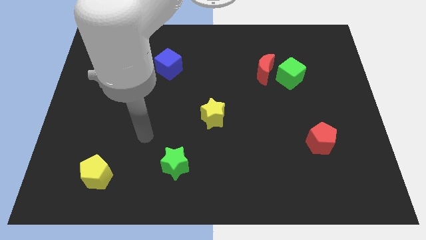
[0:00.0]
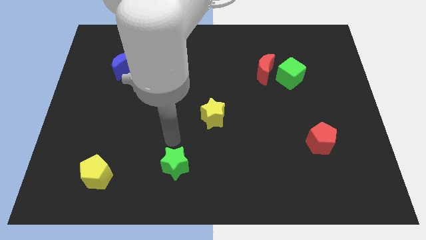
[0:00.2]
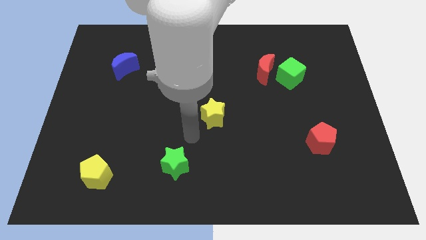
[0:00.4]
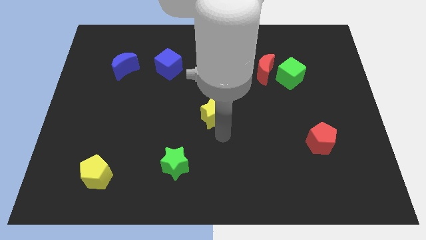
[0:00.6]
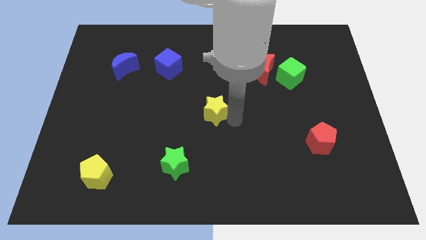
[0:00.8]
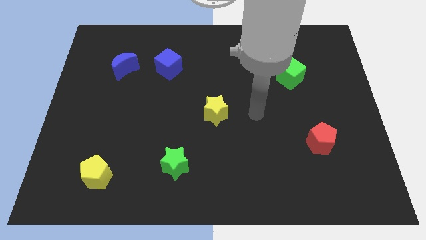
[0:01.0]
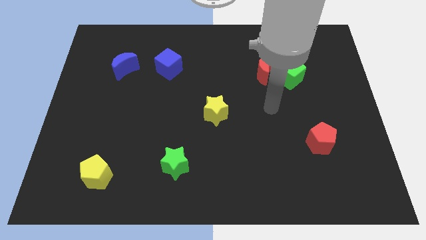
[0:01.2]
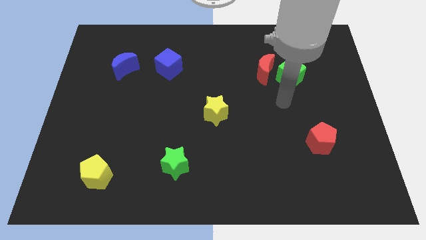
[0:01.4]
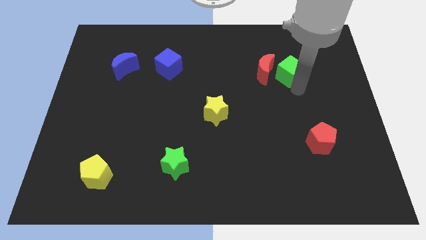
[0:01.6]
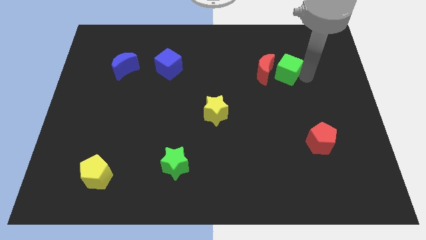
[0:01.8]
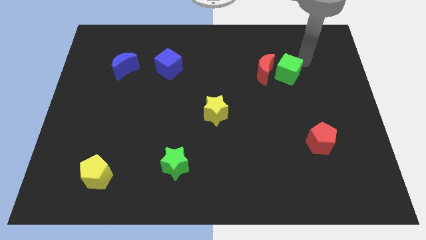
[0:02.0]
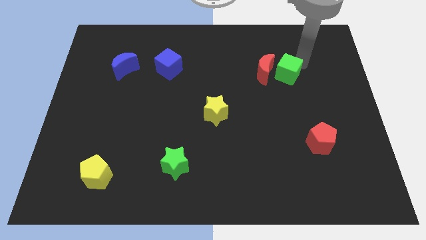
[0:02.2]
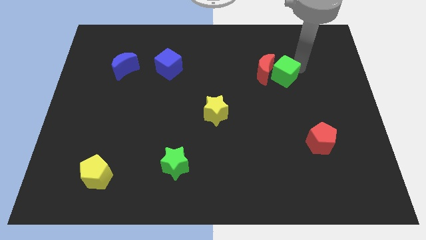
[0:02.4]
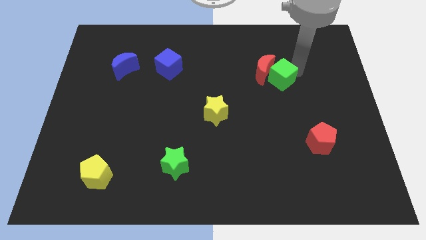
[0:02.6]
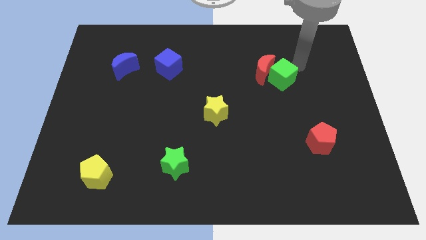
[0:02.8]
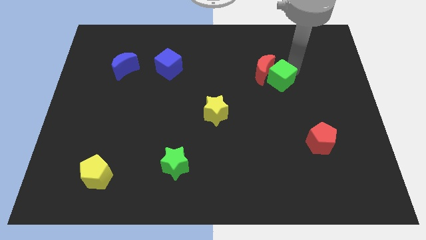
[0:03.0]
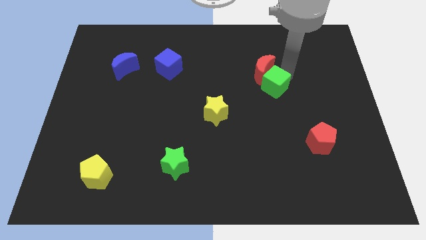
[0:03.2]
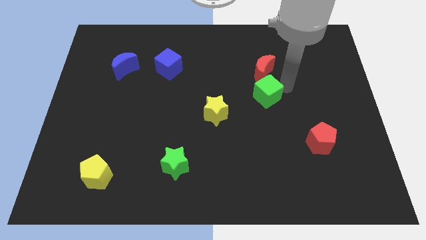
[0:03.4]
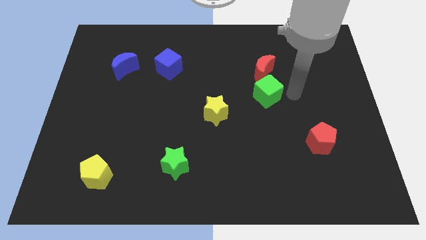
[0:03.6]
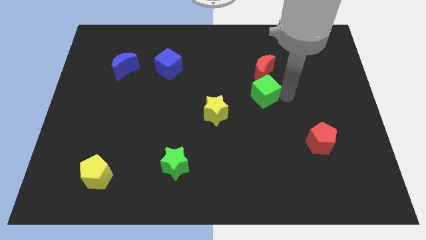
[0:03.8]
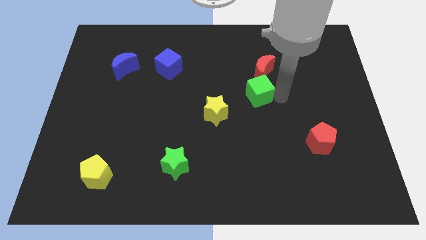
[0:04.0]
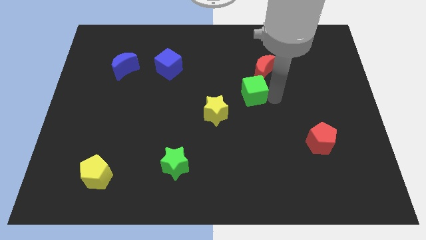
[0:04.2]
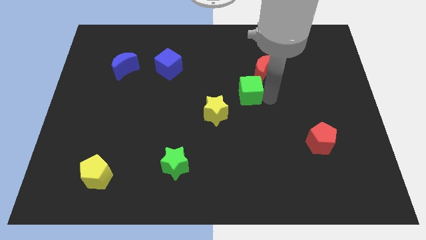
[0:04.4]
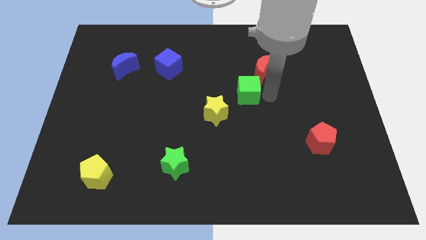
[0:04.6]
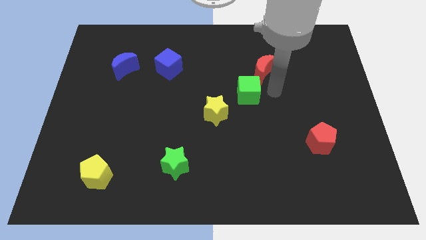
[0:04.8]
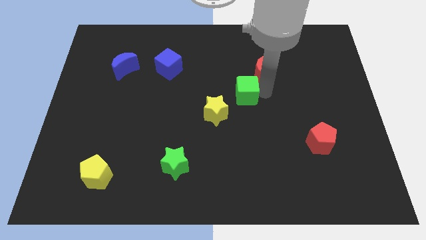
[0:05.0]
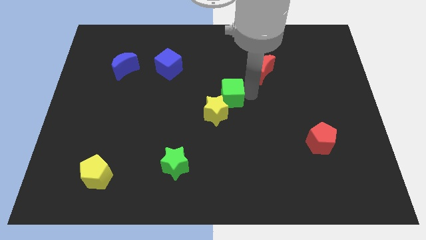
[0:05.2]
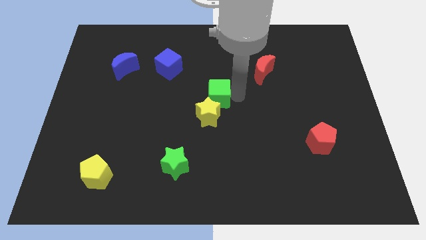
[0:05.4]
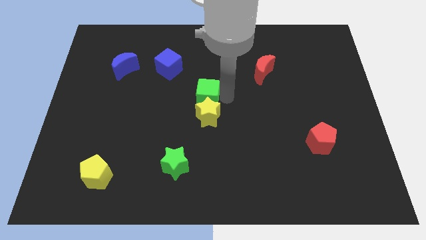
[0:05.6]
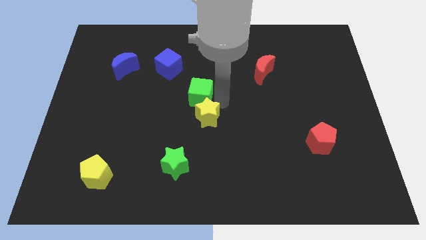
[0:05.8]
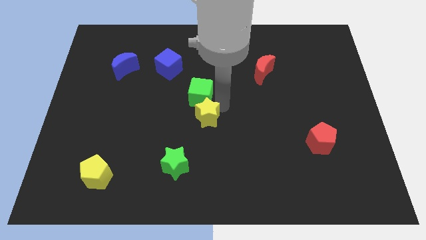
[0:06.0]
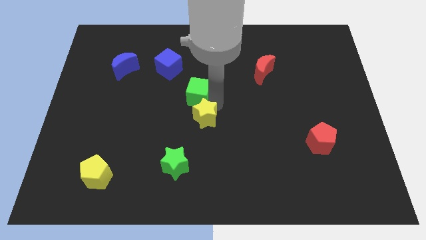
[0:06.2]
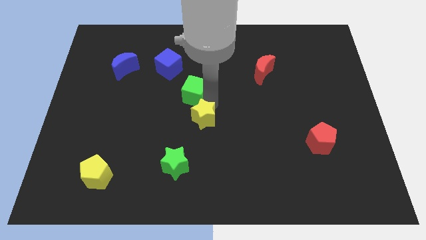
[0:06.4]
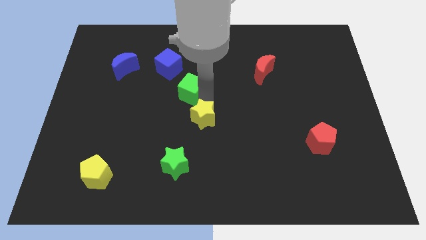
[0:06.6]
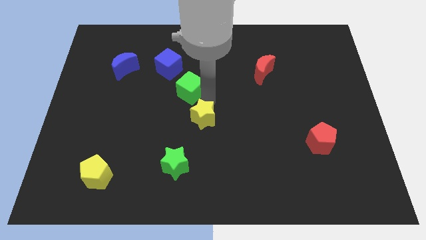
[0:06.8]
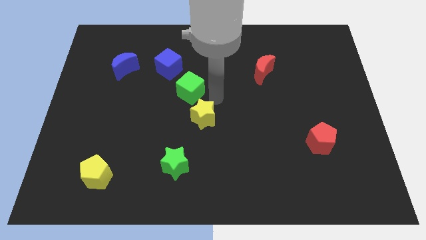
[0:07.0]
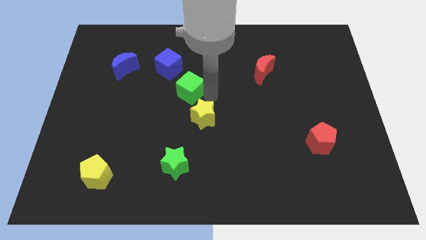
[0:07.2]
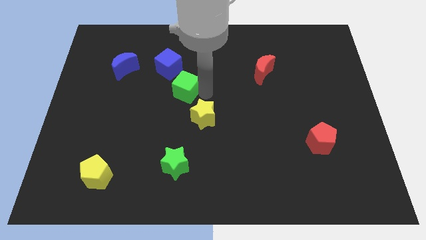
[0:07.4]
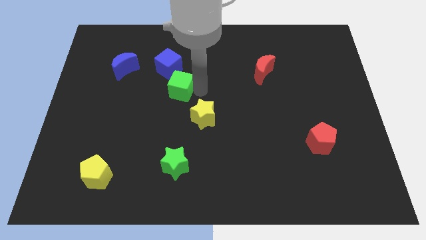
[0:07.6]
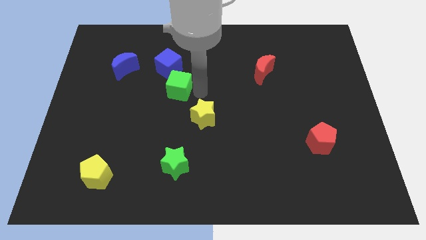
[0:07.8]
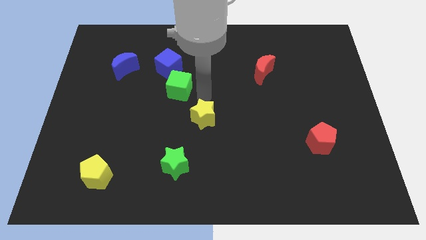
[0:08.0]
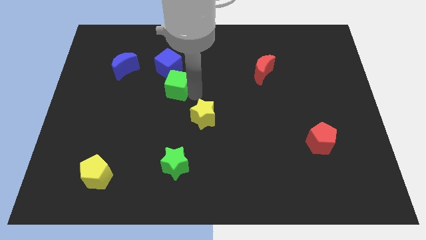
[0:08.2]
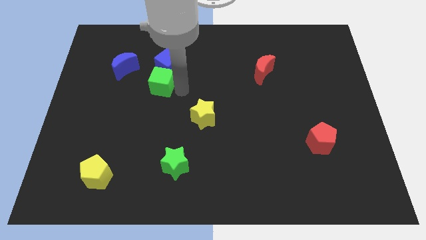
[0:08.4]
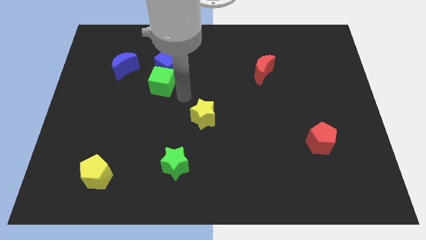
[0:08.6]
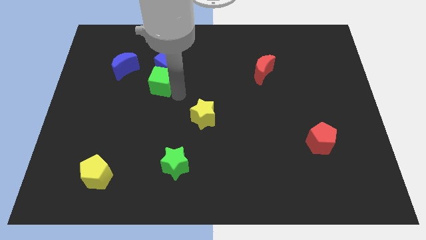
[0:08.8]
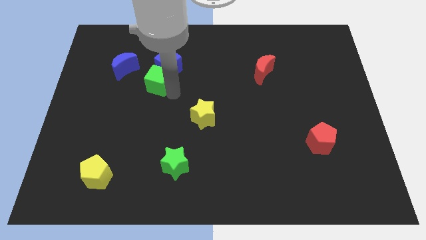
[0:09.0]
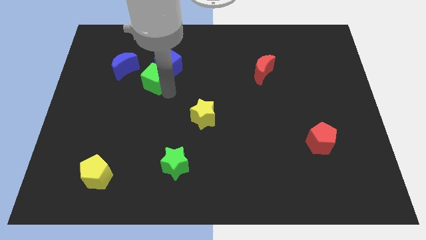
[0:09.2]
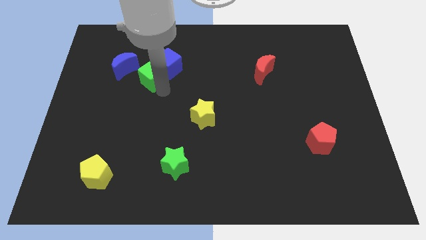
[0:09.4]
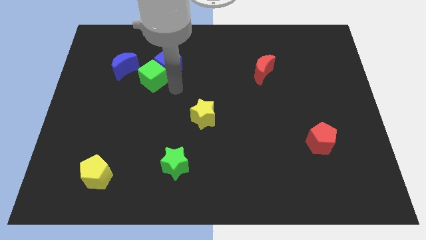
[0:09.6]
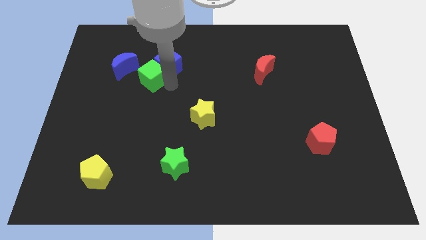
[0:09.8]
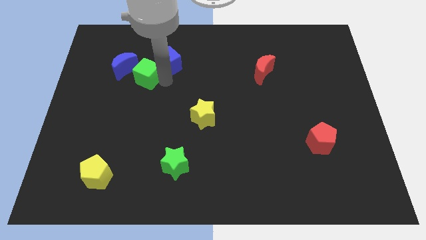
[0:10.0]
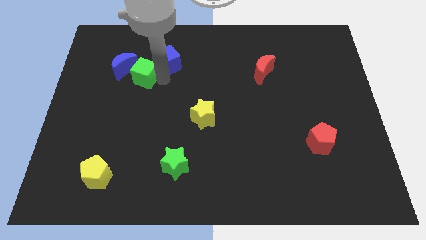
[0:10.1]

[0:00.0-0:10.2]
slide the green cube to the blue moon

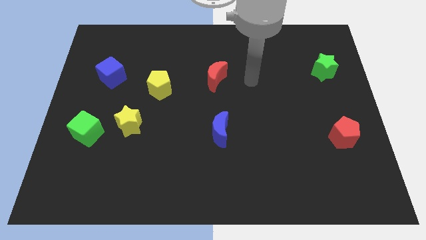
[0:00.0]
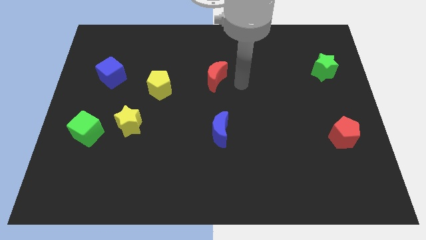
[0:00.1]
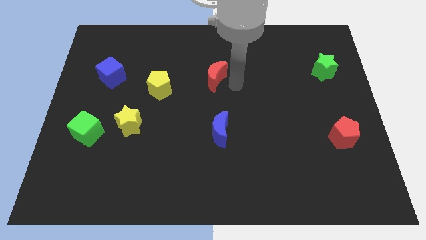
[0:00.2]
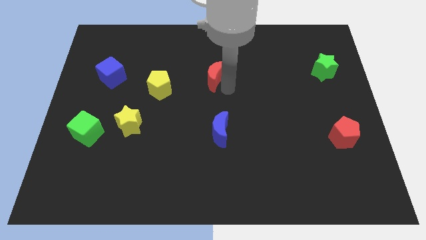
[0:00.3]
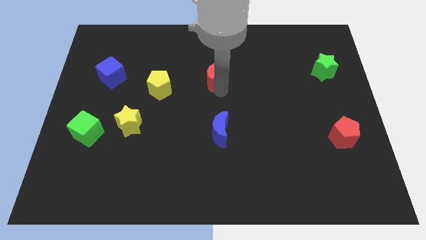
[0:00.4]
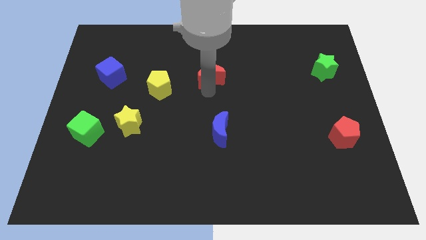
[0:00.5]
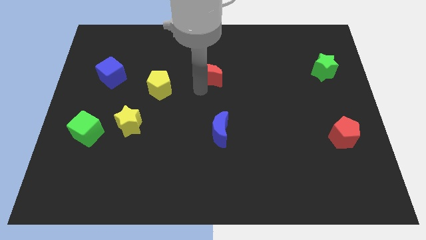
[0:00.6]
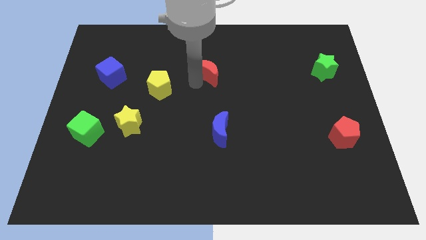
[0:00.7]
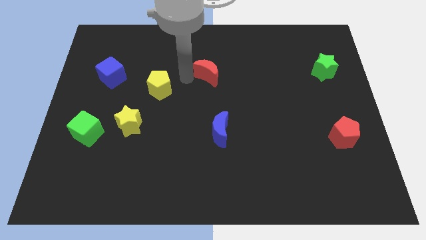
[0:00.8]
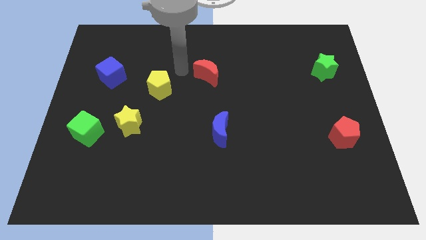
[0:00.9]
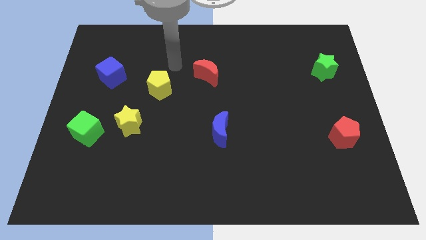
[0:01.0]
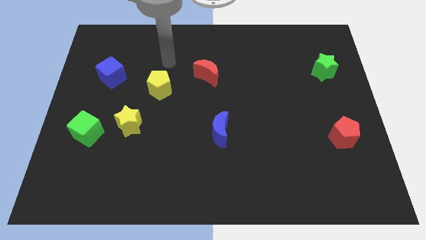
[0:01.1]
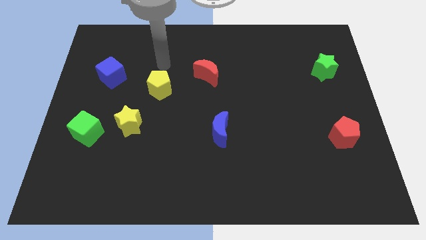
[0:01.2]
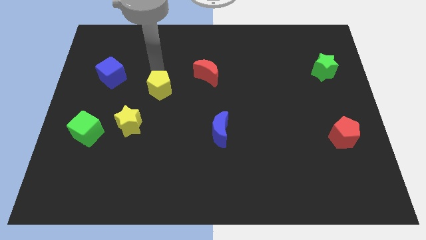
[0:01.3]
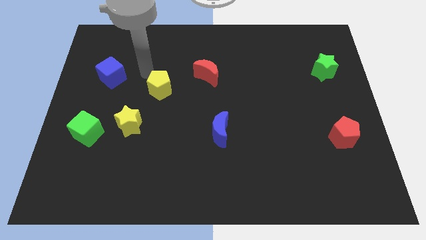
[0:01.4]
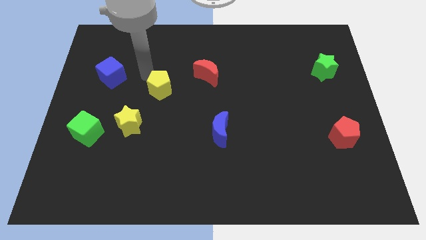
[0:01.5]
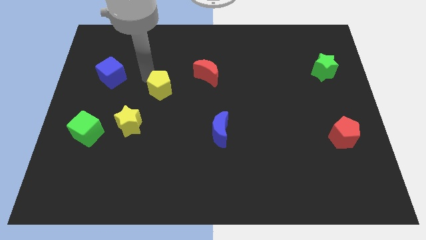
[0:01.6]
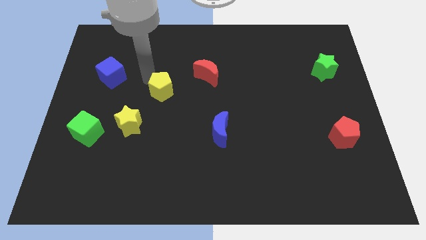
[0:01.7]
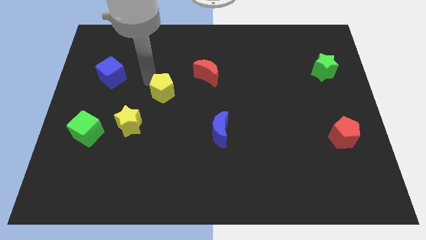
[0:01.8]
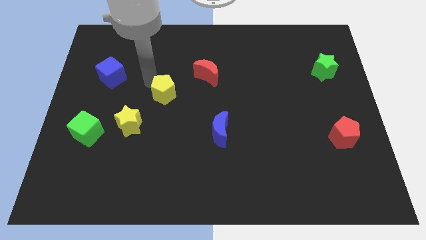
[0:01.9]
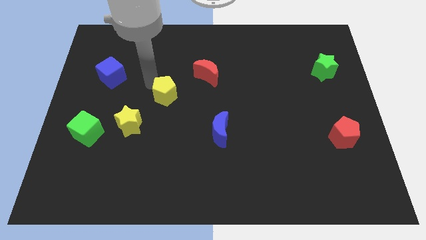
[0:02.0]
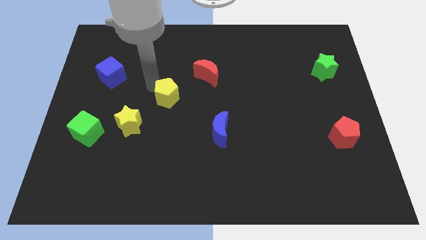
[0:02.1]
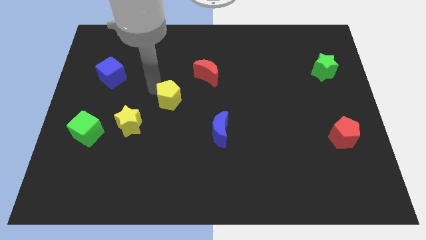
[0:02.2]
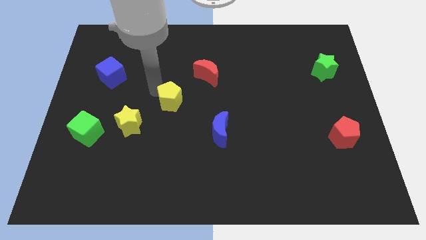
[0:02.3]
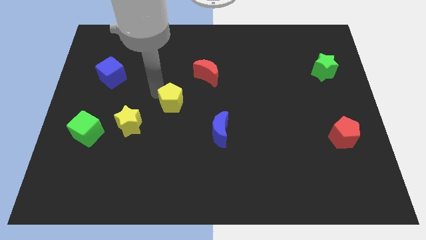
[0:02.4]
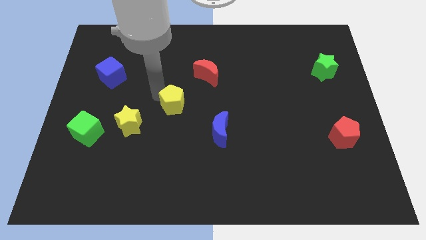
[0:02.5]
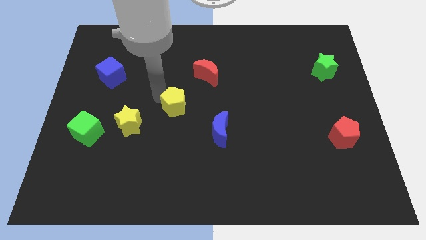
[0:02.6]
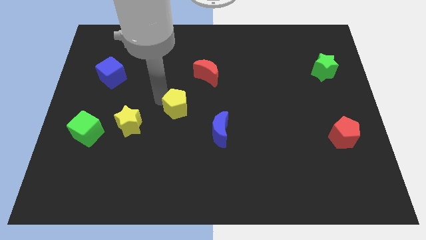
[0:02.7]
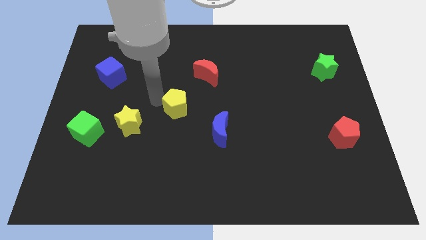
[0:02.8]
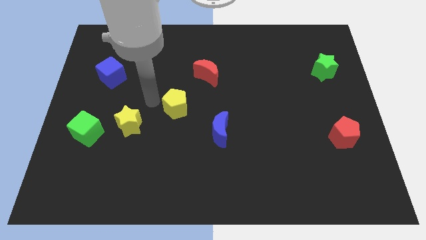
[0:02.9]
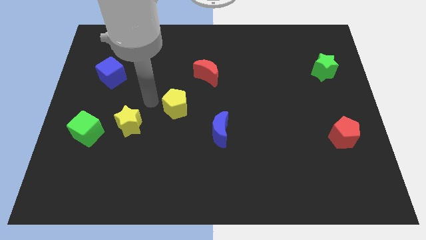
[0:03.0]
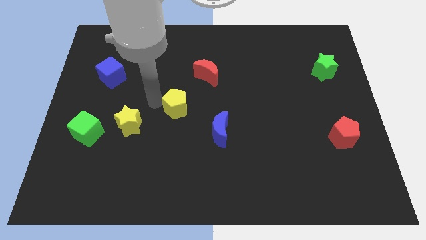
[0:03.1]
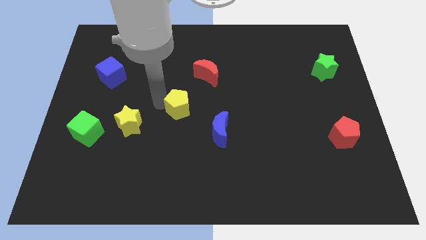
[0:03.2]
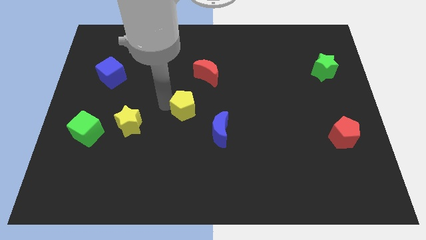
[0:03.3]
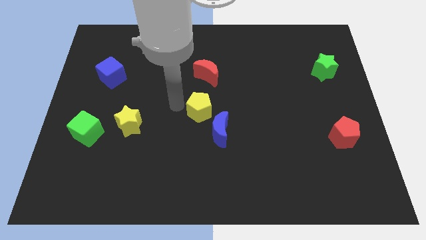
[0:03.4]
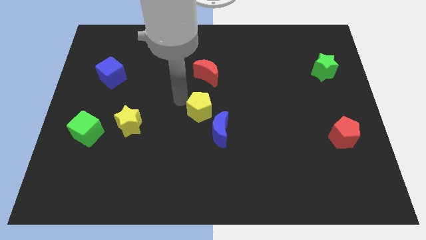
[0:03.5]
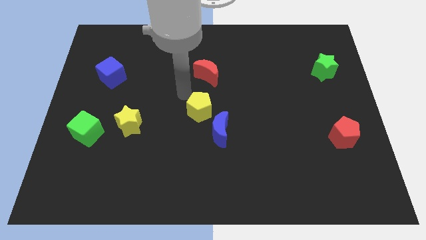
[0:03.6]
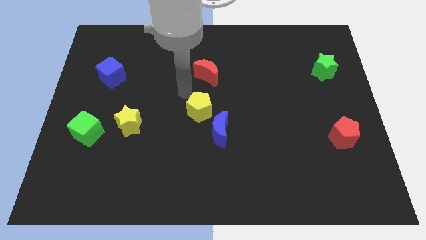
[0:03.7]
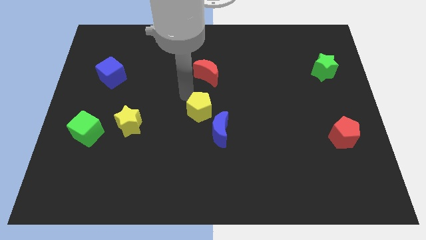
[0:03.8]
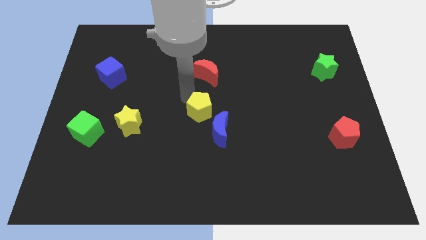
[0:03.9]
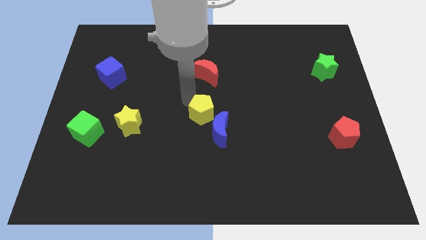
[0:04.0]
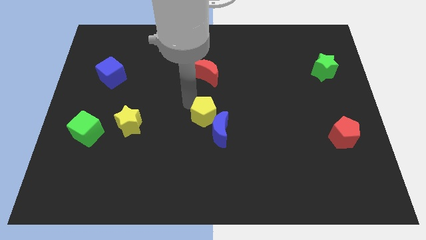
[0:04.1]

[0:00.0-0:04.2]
push the yellow pentagon towards the blue moon
